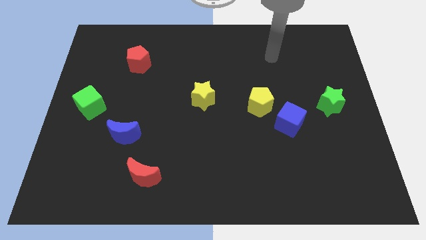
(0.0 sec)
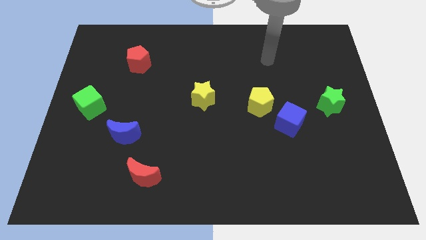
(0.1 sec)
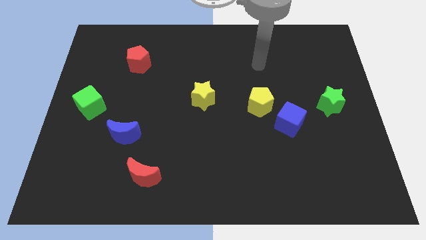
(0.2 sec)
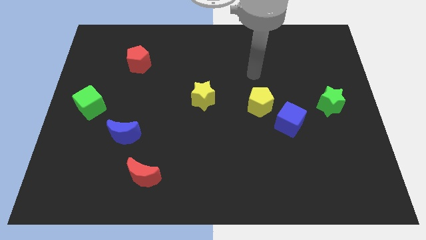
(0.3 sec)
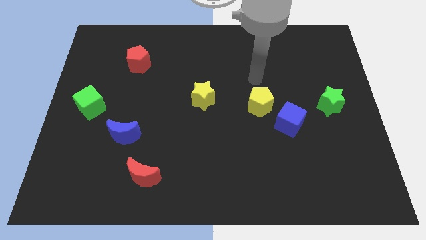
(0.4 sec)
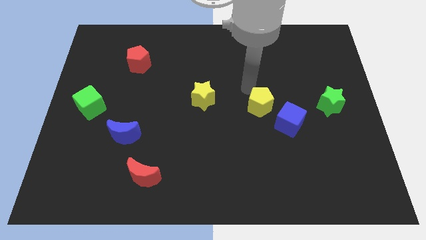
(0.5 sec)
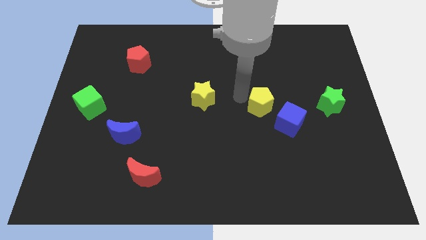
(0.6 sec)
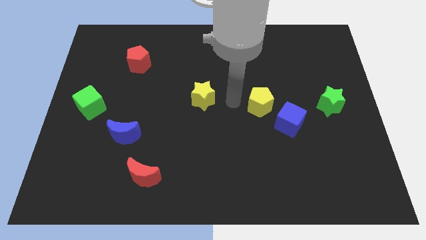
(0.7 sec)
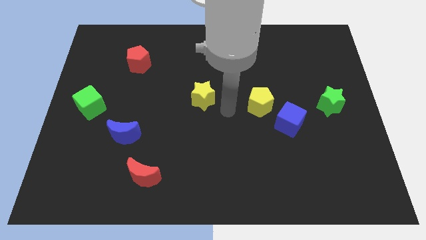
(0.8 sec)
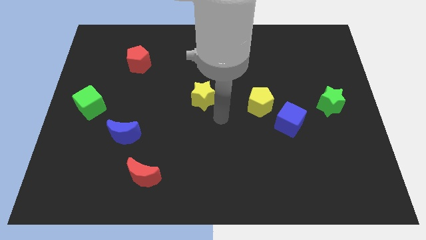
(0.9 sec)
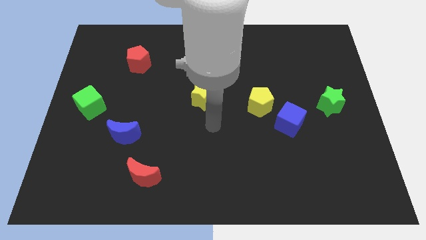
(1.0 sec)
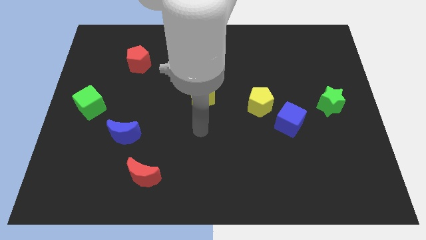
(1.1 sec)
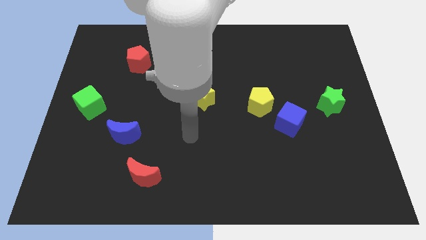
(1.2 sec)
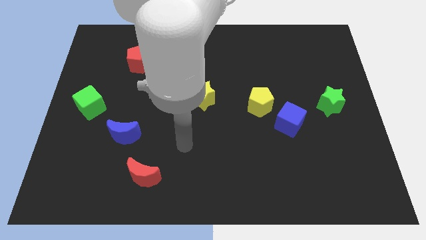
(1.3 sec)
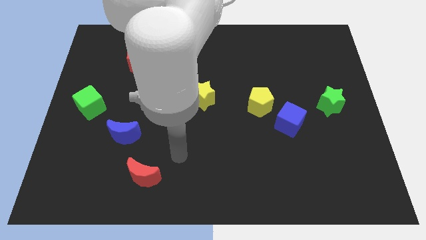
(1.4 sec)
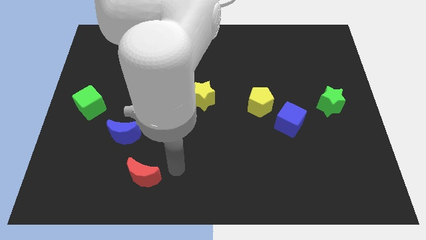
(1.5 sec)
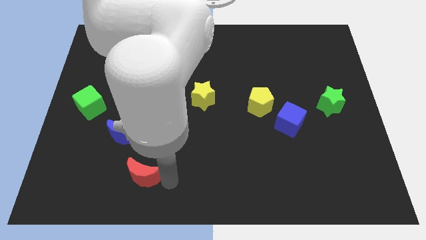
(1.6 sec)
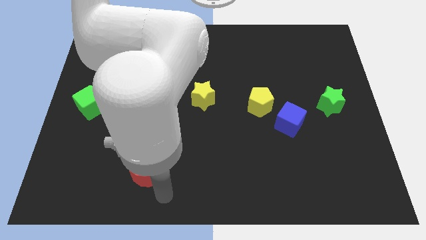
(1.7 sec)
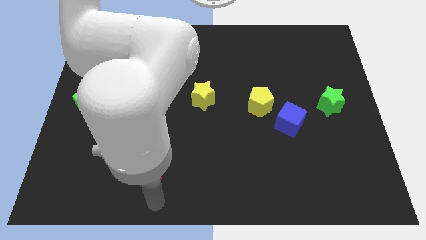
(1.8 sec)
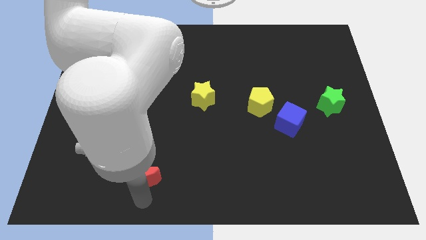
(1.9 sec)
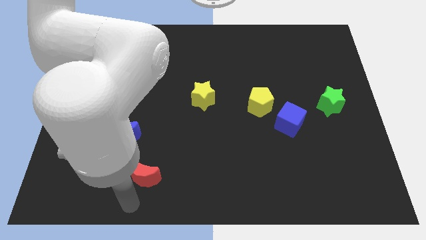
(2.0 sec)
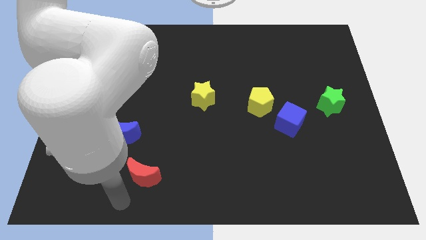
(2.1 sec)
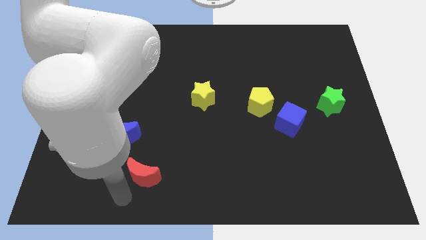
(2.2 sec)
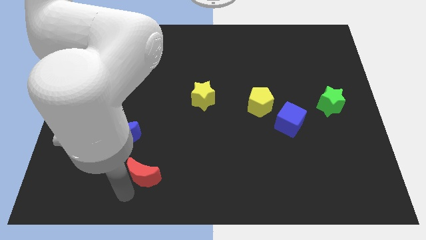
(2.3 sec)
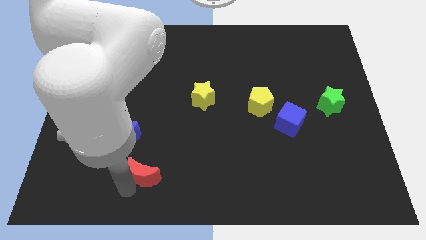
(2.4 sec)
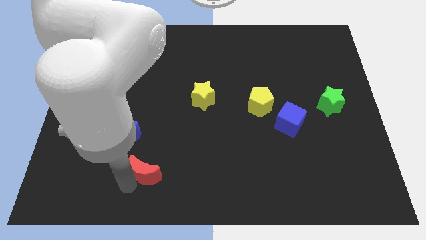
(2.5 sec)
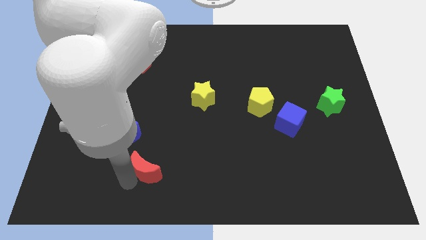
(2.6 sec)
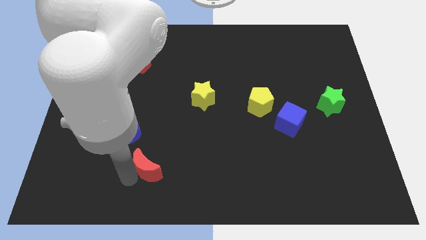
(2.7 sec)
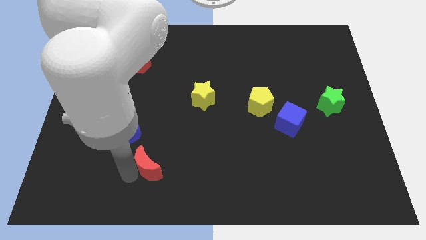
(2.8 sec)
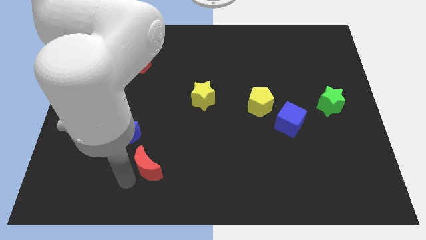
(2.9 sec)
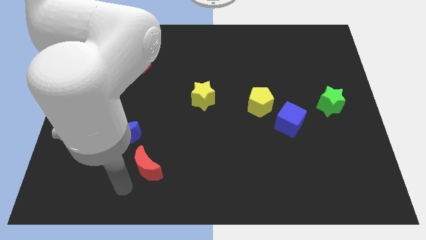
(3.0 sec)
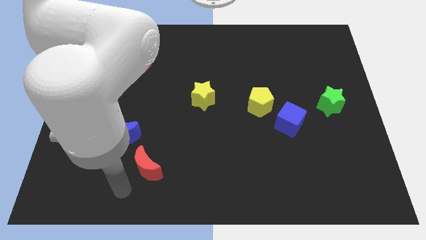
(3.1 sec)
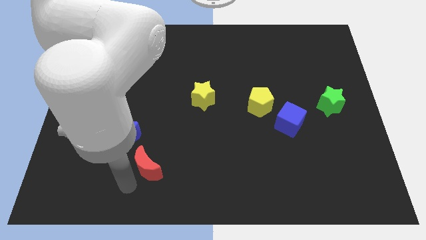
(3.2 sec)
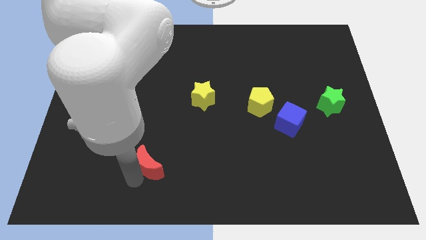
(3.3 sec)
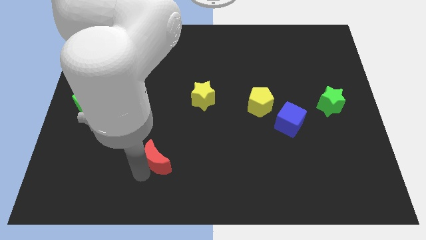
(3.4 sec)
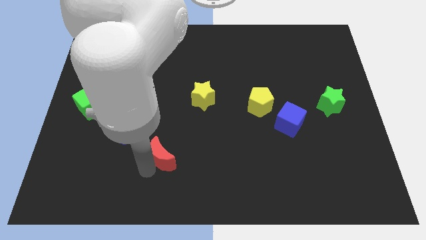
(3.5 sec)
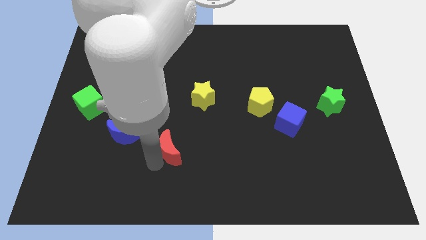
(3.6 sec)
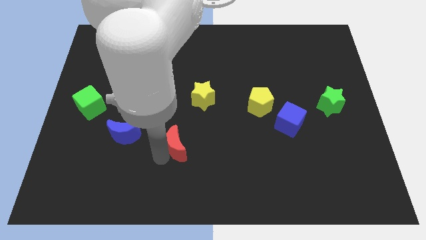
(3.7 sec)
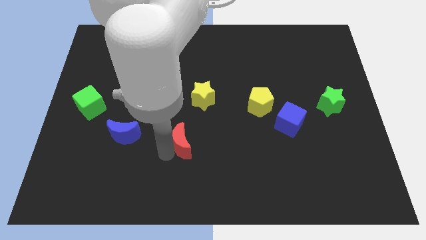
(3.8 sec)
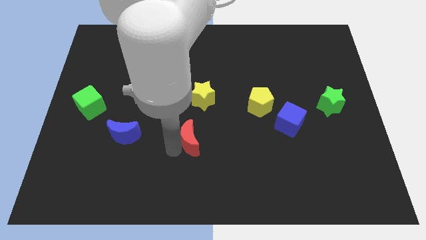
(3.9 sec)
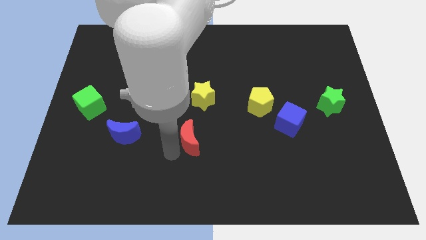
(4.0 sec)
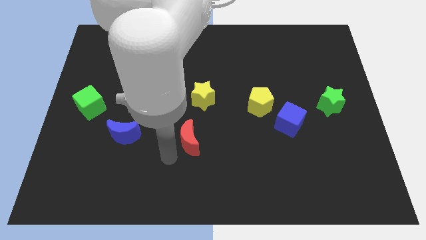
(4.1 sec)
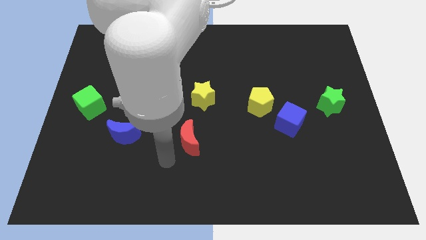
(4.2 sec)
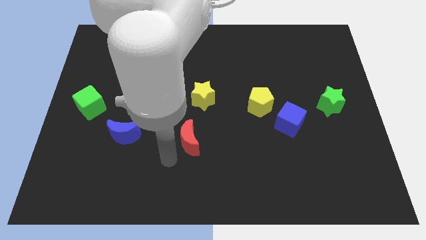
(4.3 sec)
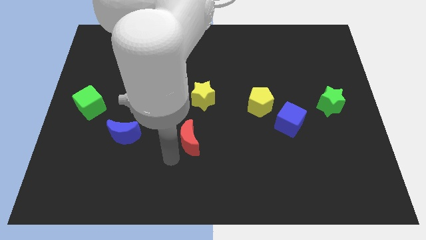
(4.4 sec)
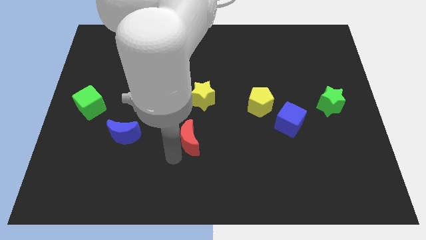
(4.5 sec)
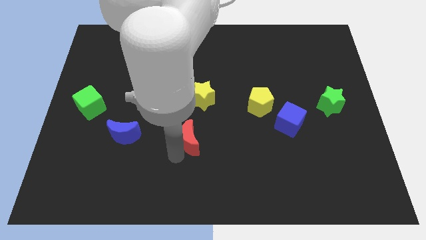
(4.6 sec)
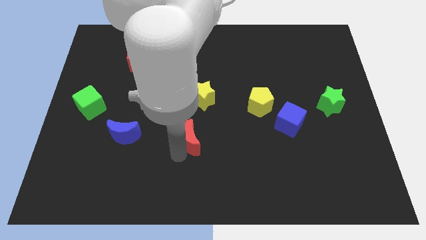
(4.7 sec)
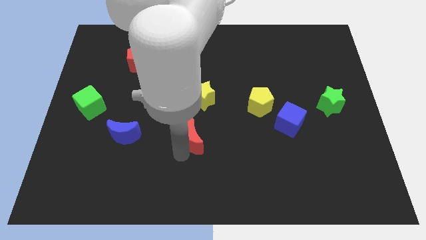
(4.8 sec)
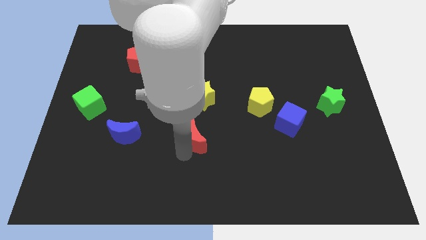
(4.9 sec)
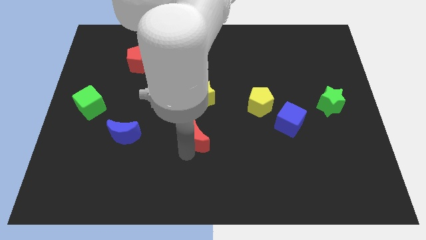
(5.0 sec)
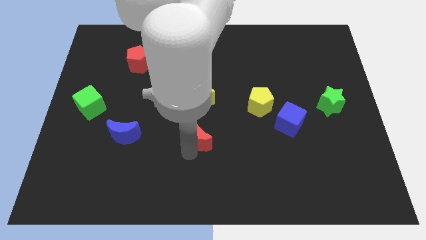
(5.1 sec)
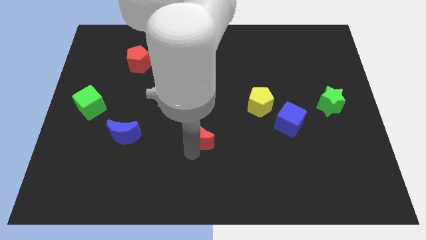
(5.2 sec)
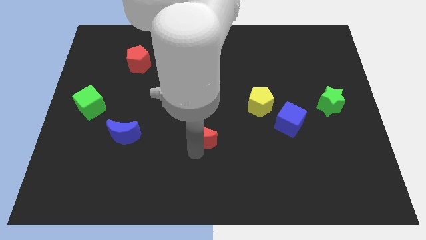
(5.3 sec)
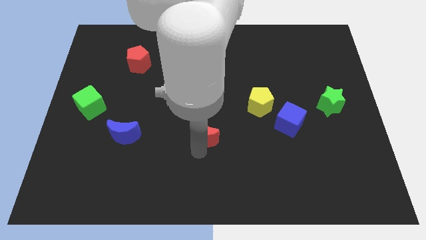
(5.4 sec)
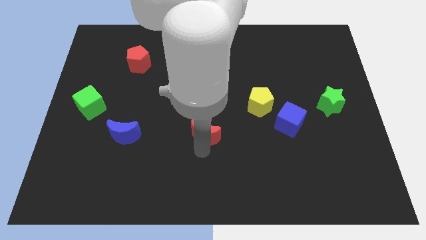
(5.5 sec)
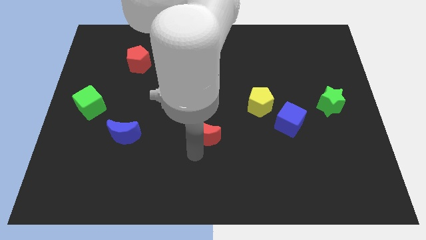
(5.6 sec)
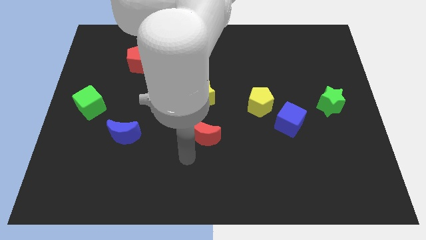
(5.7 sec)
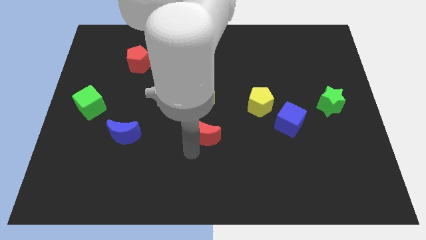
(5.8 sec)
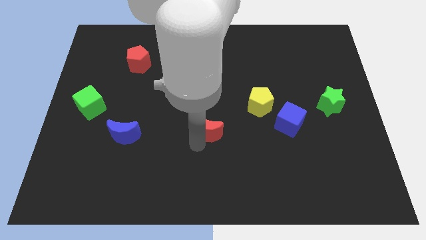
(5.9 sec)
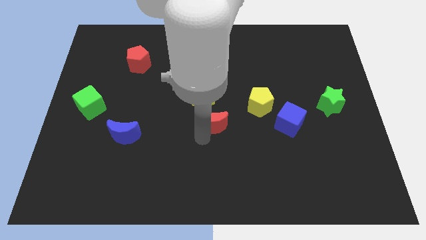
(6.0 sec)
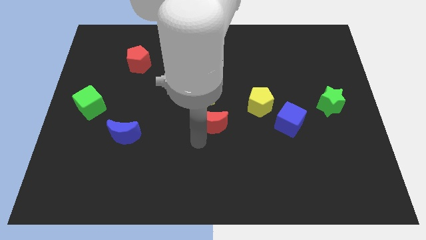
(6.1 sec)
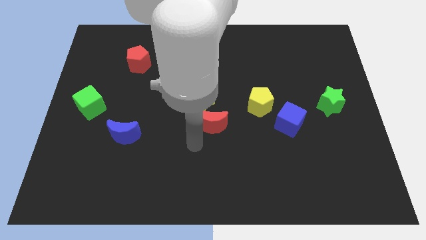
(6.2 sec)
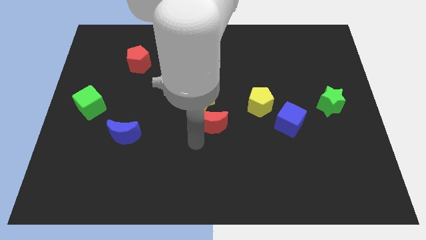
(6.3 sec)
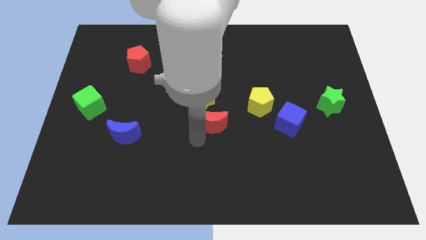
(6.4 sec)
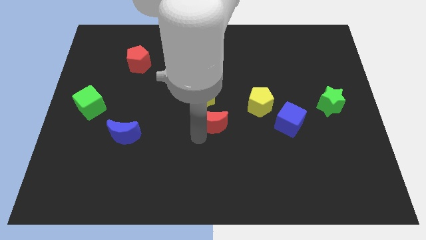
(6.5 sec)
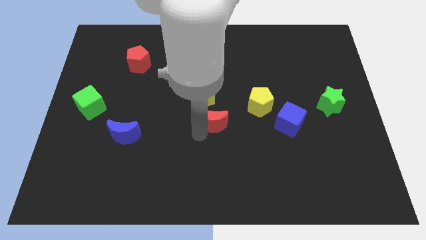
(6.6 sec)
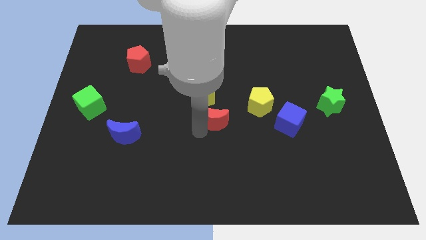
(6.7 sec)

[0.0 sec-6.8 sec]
move the red moon up and right

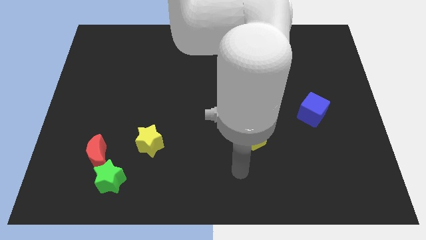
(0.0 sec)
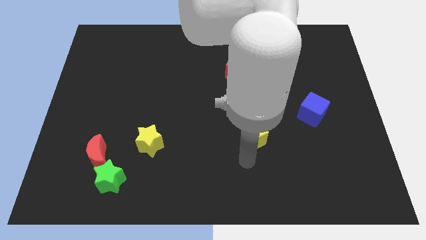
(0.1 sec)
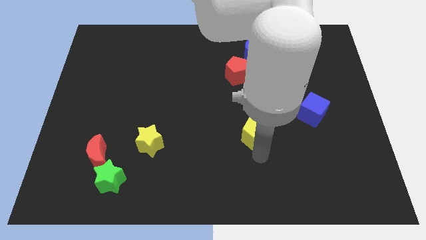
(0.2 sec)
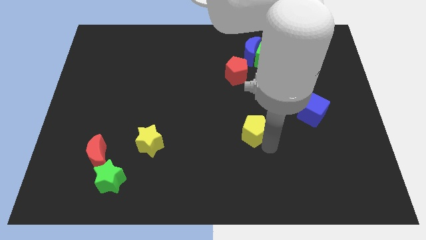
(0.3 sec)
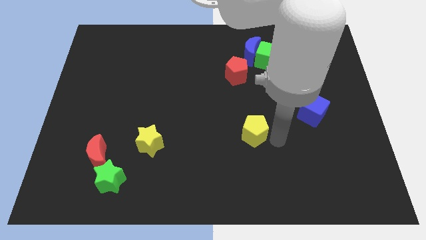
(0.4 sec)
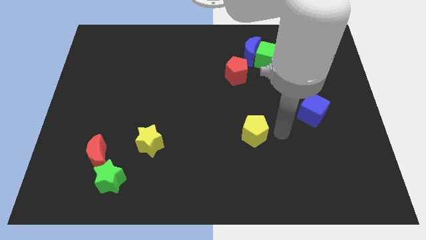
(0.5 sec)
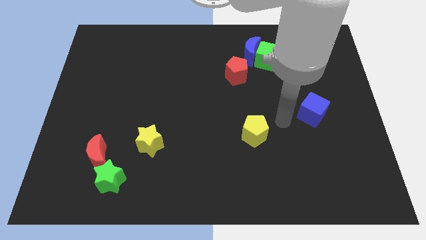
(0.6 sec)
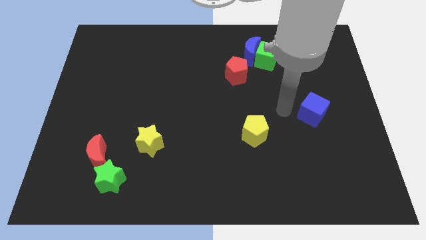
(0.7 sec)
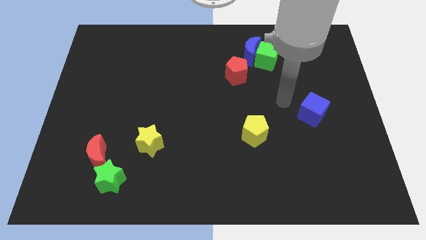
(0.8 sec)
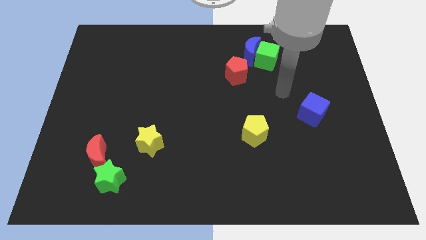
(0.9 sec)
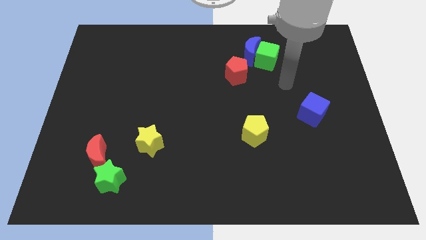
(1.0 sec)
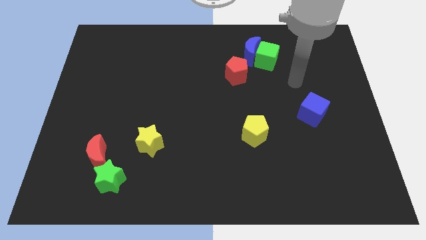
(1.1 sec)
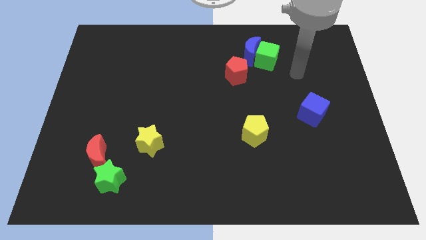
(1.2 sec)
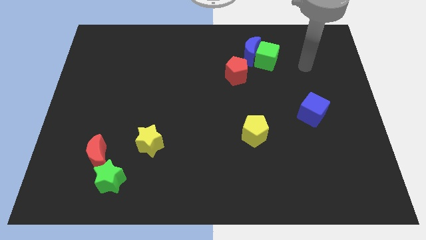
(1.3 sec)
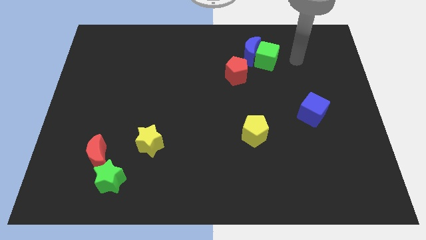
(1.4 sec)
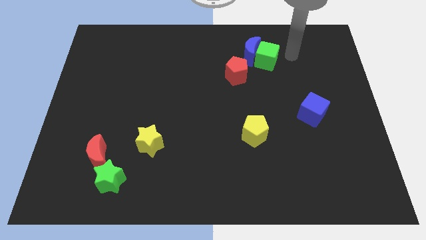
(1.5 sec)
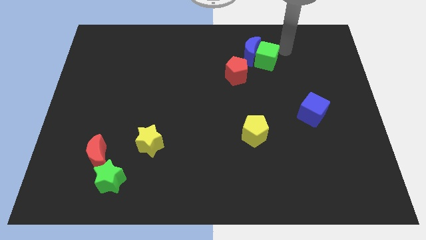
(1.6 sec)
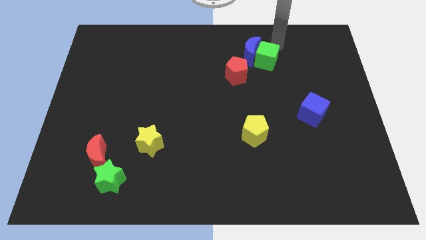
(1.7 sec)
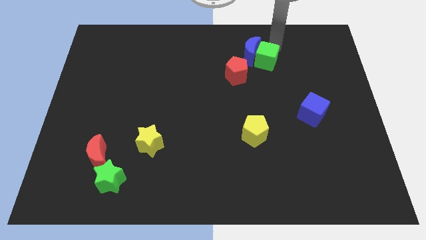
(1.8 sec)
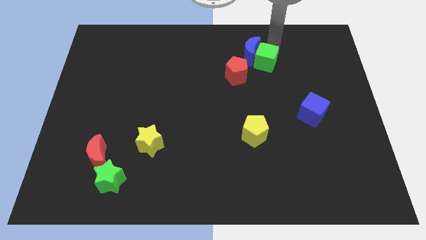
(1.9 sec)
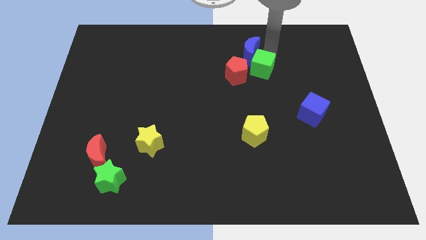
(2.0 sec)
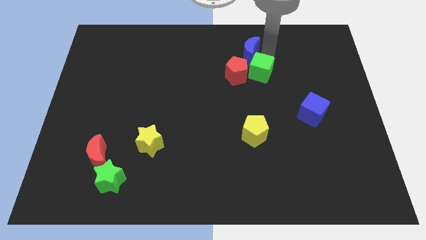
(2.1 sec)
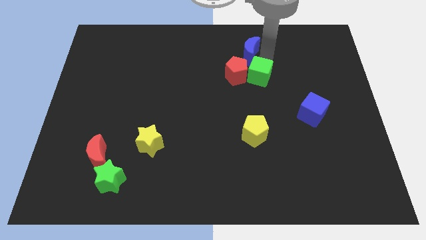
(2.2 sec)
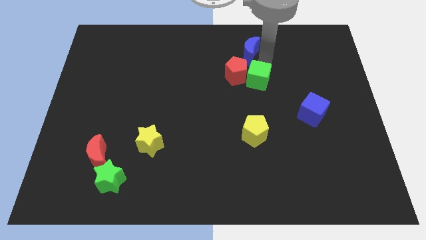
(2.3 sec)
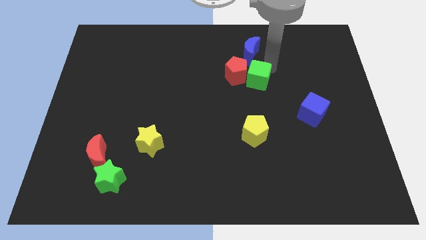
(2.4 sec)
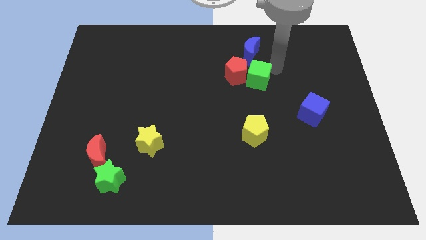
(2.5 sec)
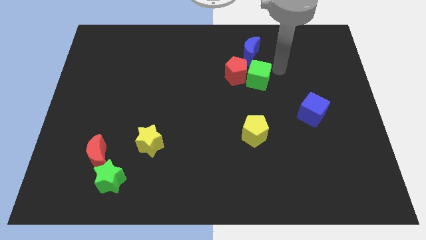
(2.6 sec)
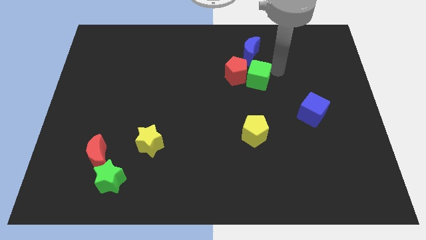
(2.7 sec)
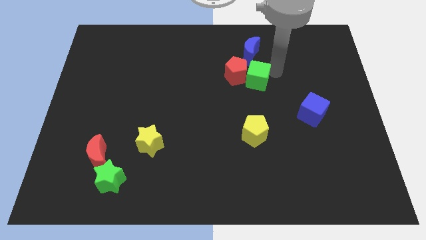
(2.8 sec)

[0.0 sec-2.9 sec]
move the green cube somewhat downwards and to the left diagonally
